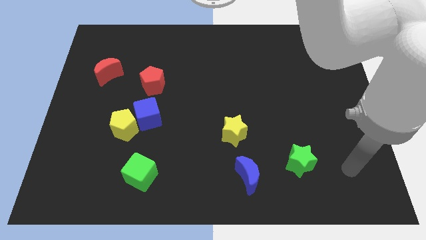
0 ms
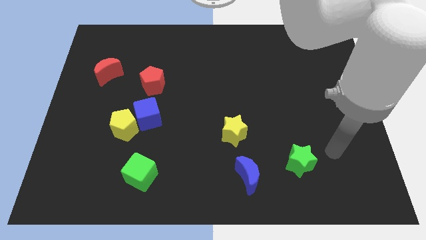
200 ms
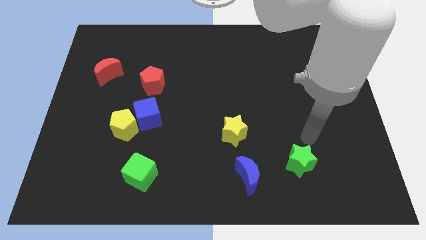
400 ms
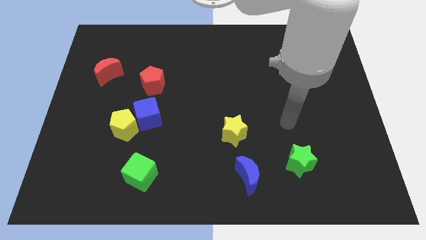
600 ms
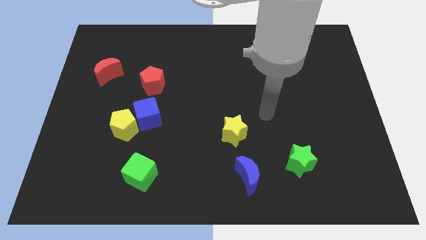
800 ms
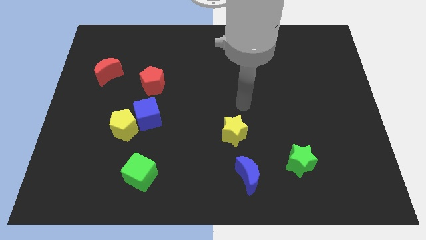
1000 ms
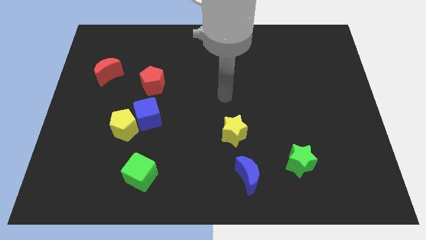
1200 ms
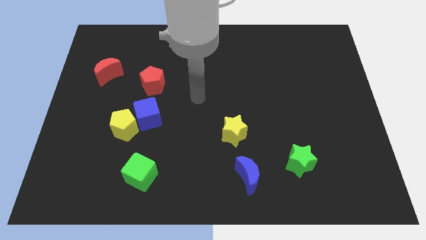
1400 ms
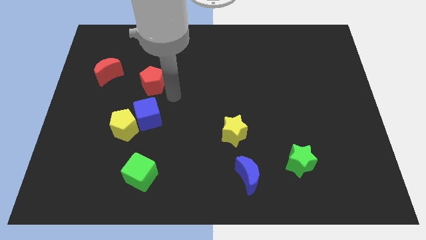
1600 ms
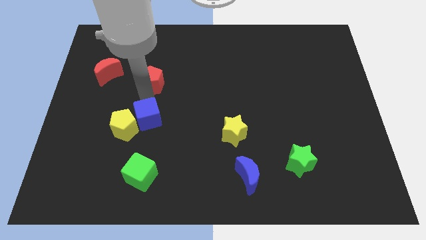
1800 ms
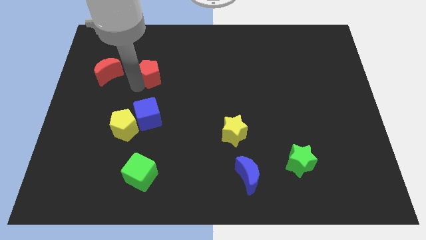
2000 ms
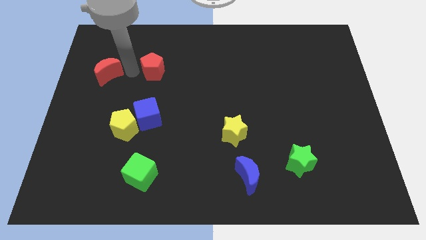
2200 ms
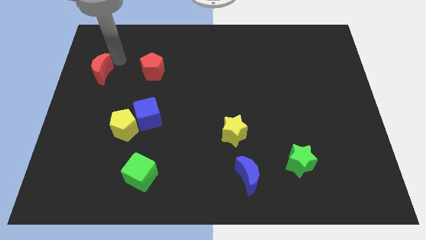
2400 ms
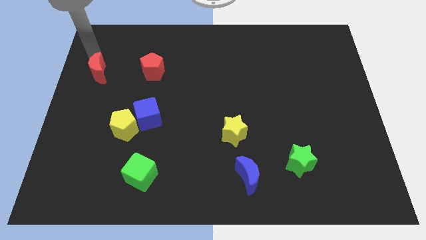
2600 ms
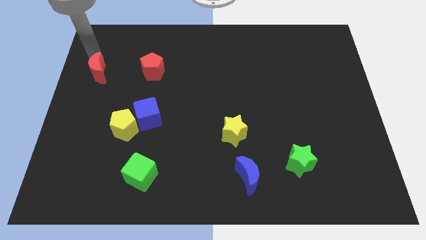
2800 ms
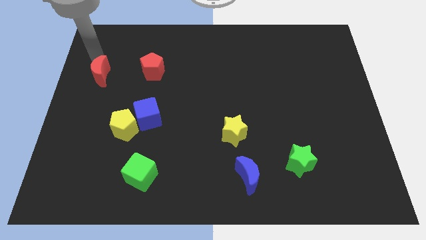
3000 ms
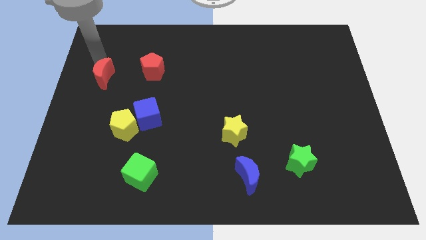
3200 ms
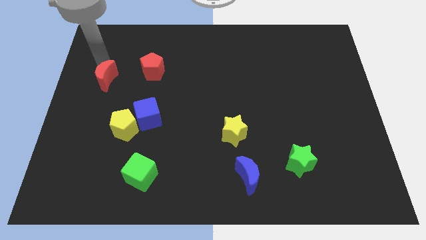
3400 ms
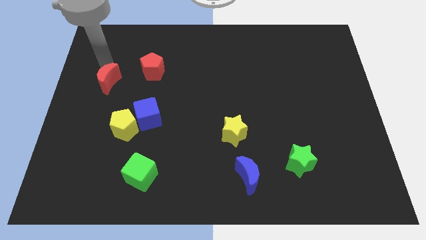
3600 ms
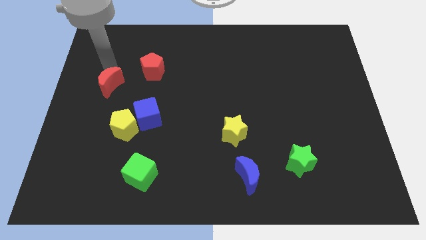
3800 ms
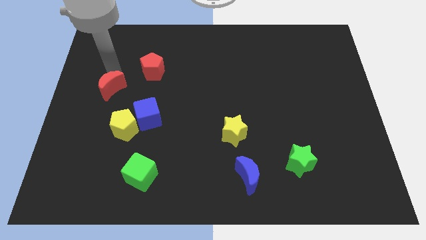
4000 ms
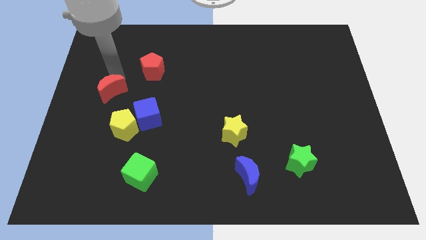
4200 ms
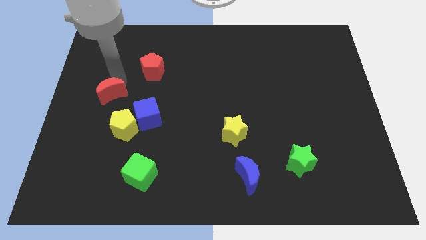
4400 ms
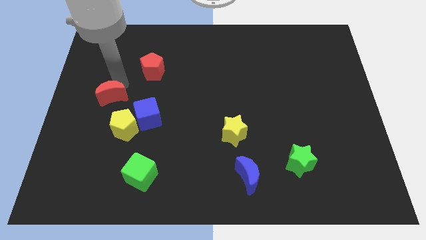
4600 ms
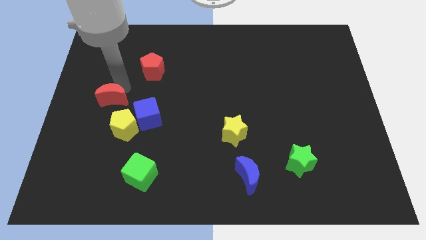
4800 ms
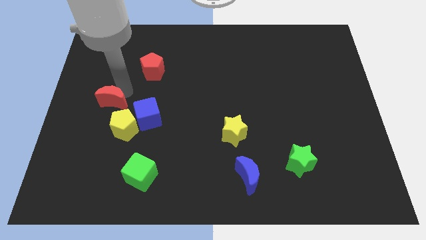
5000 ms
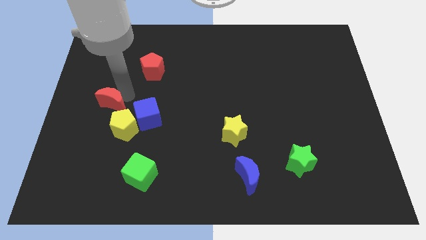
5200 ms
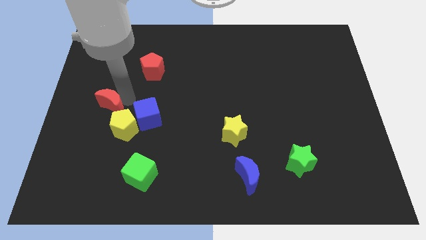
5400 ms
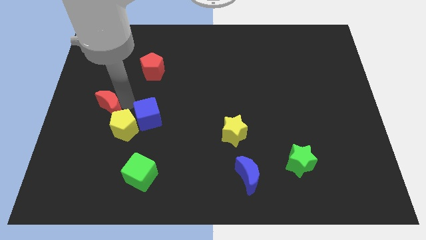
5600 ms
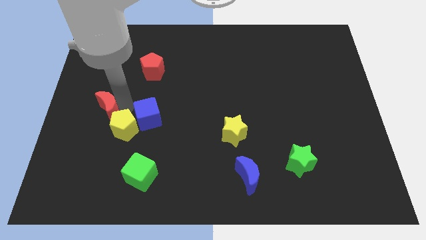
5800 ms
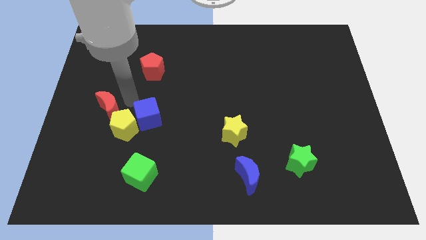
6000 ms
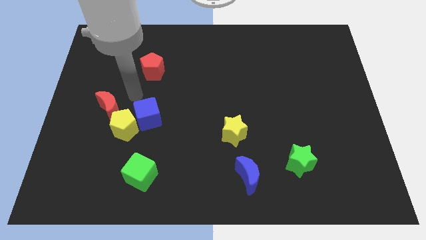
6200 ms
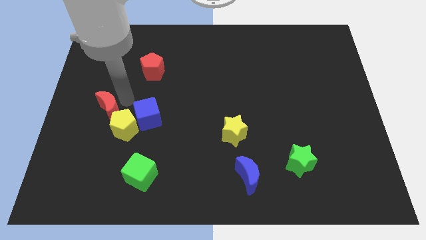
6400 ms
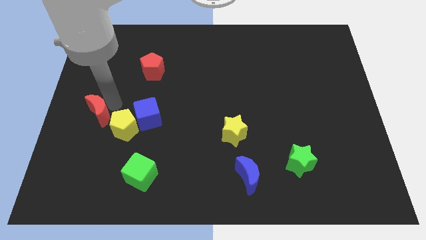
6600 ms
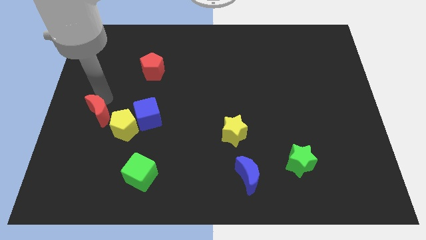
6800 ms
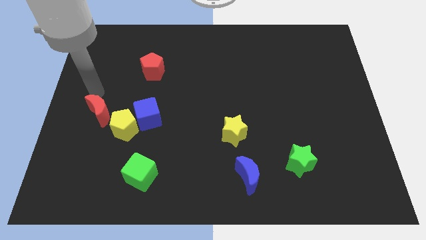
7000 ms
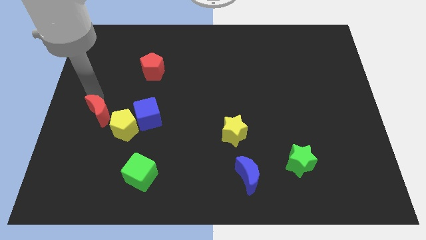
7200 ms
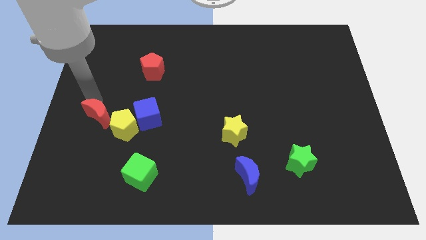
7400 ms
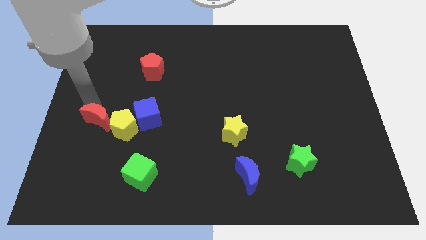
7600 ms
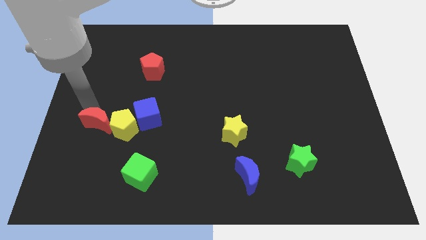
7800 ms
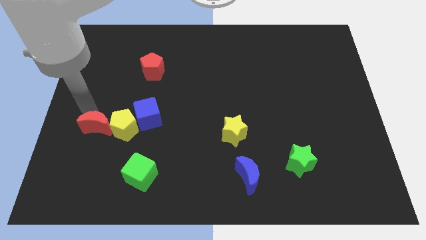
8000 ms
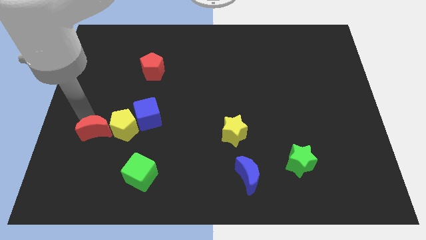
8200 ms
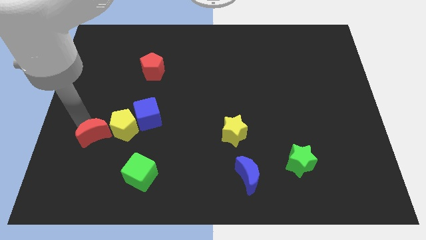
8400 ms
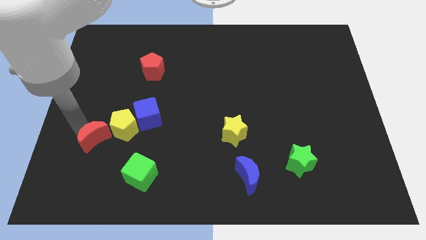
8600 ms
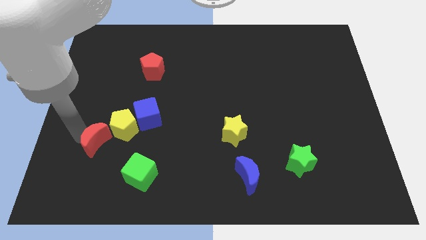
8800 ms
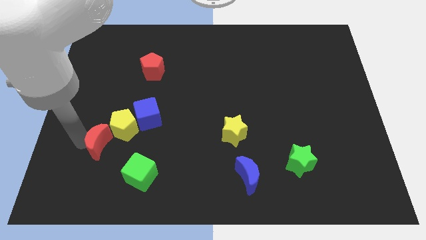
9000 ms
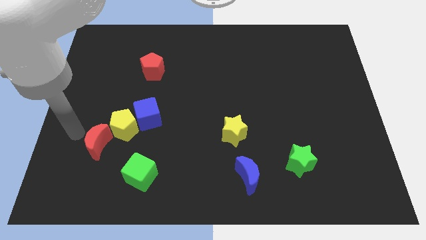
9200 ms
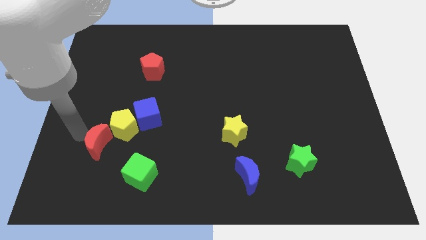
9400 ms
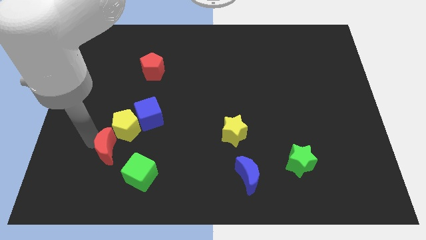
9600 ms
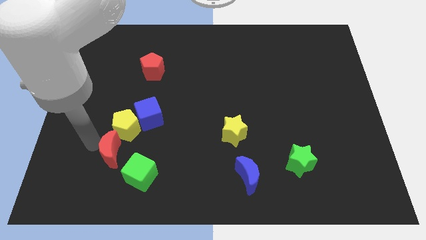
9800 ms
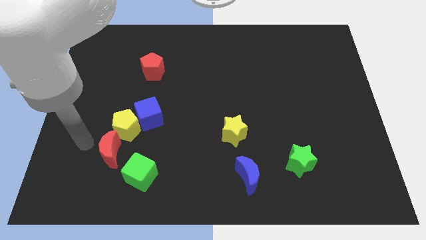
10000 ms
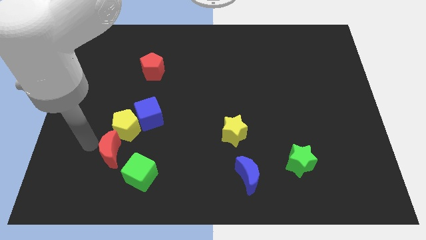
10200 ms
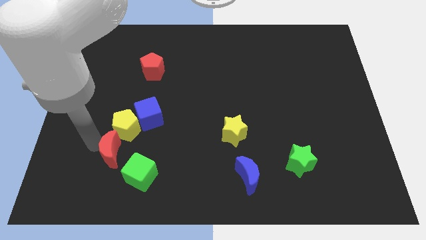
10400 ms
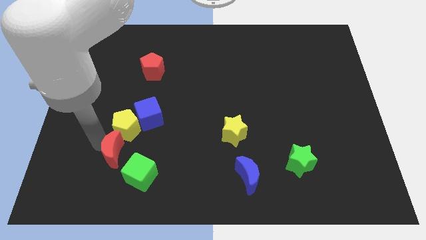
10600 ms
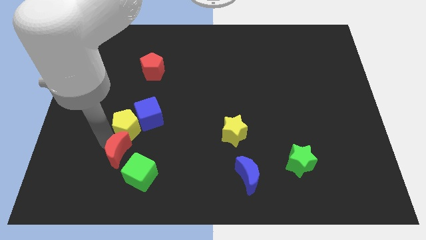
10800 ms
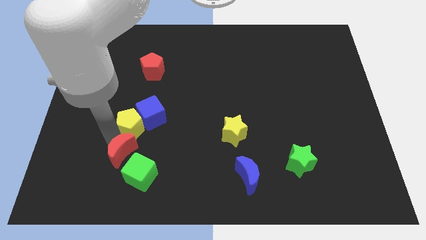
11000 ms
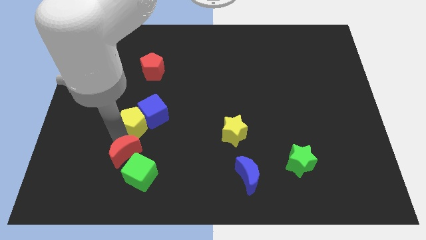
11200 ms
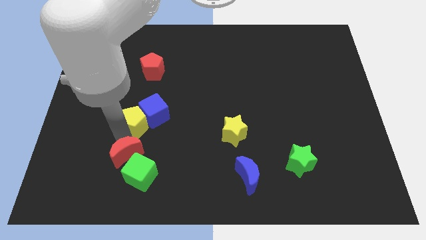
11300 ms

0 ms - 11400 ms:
slide the red moon to the green cube

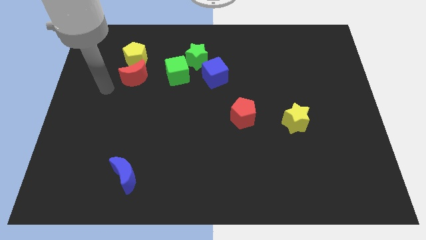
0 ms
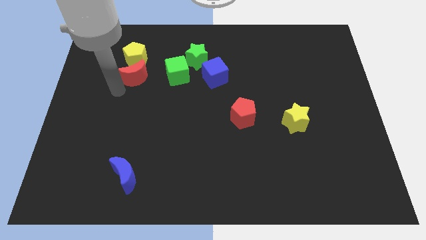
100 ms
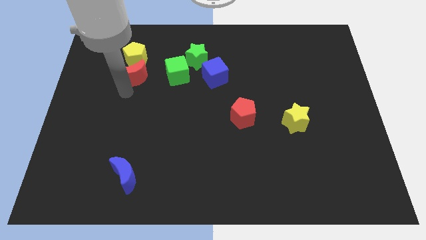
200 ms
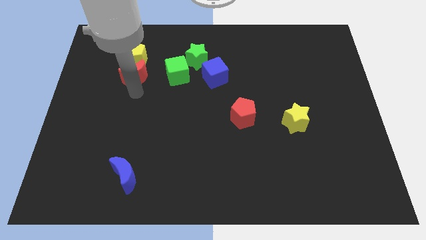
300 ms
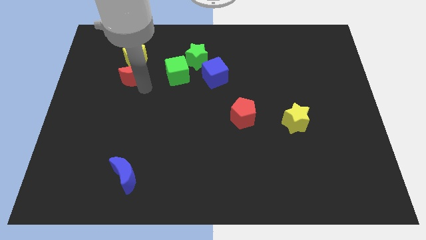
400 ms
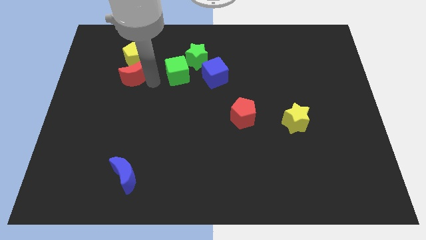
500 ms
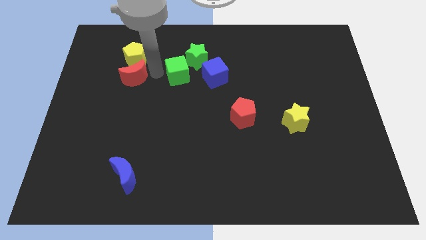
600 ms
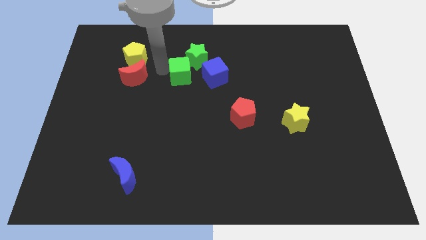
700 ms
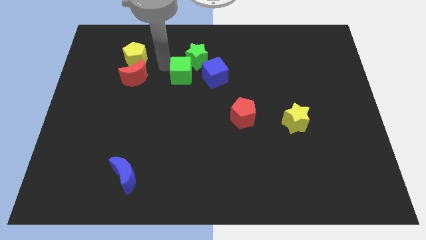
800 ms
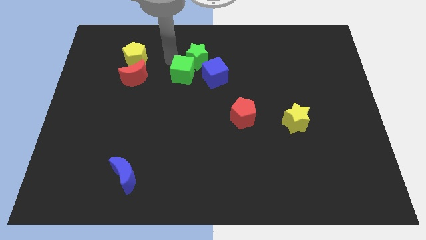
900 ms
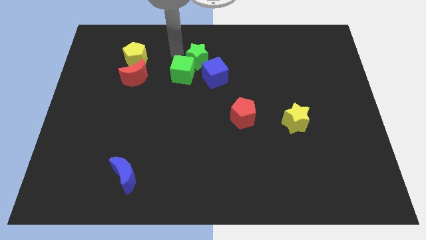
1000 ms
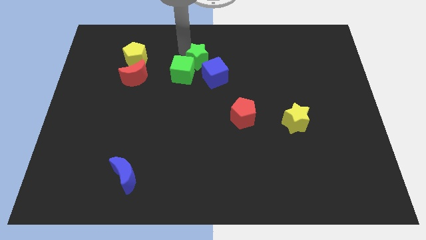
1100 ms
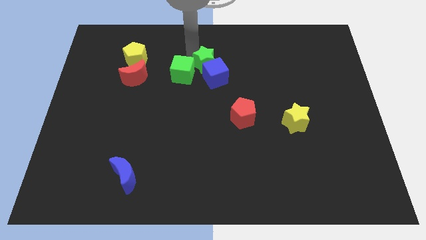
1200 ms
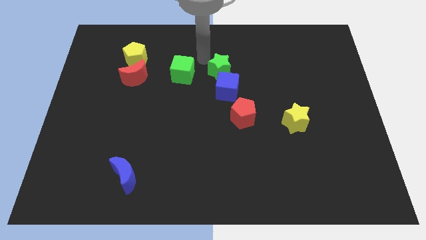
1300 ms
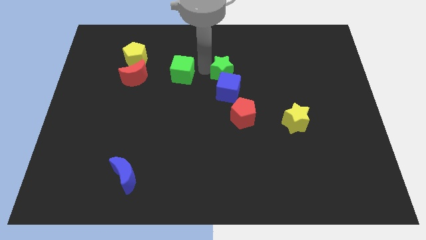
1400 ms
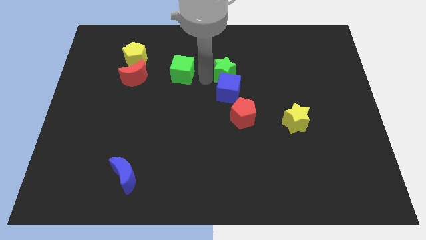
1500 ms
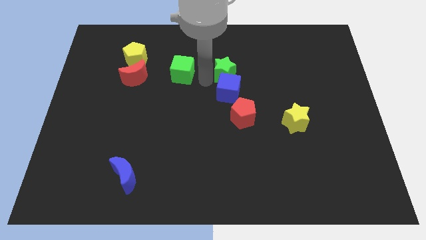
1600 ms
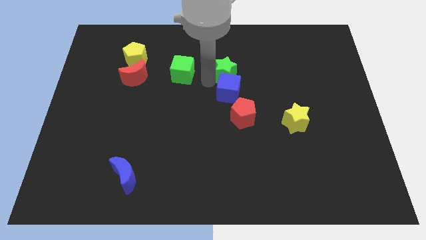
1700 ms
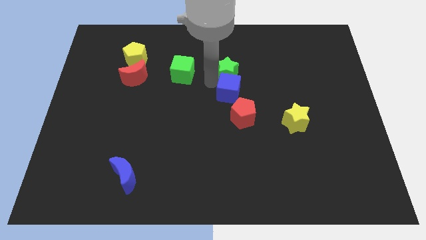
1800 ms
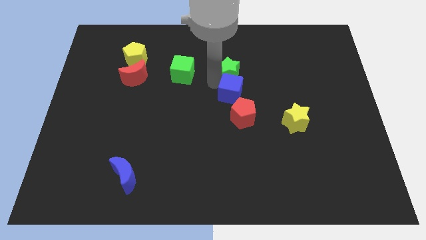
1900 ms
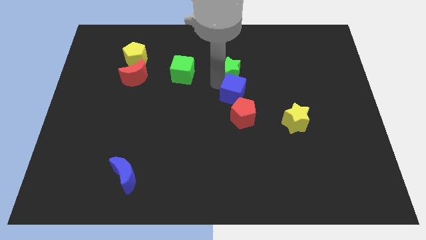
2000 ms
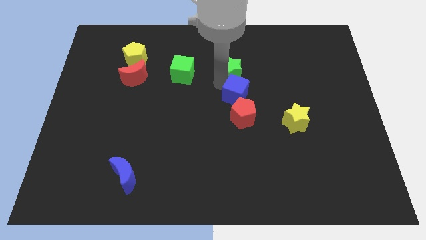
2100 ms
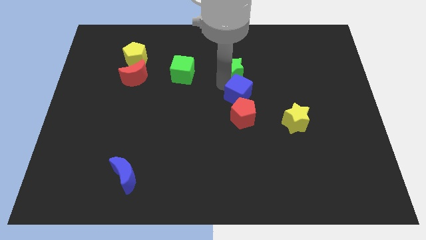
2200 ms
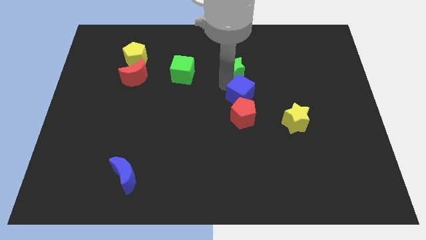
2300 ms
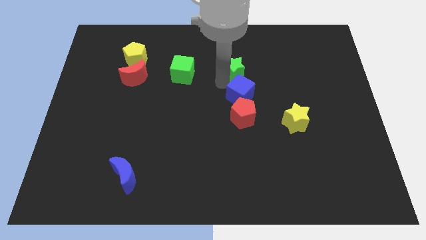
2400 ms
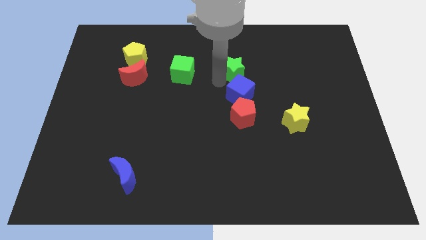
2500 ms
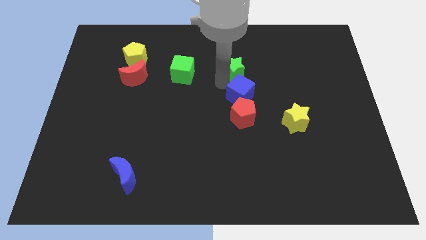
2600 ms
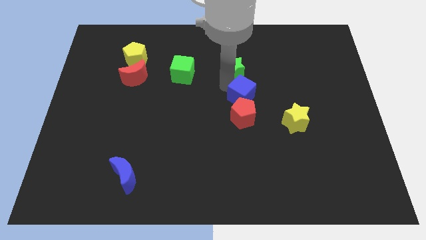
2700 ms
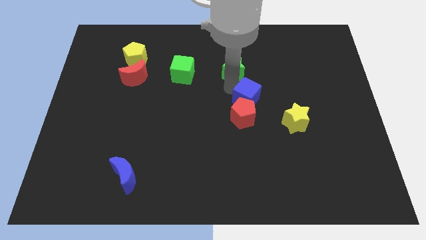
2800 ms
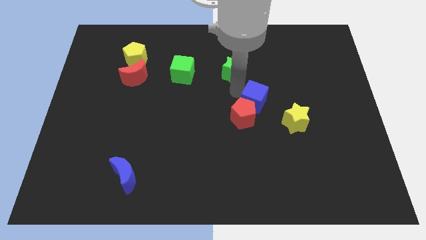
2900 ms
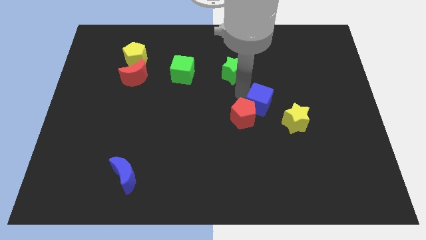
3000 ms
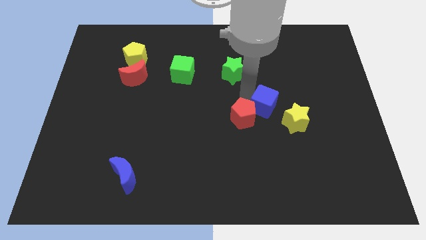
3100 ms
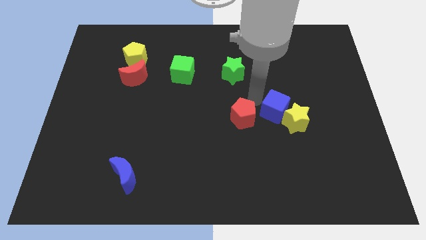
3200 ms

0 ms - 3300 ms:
push the blue cube to the yellow star
